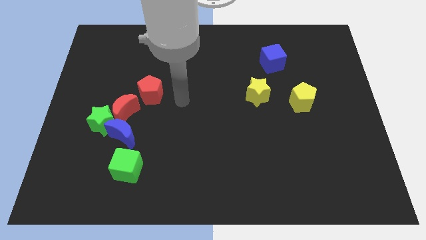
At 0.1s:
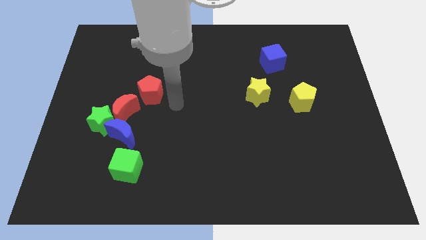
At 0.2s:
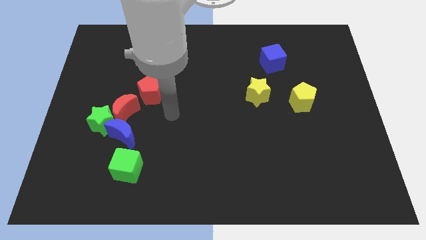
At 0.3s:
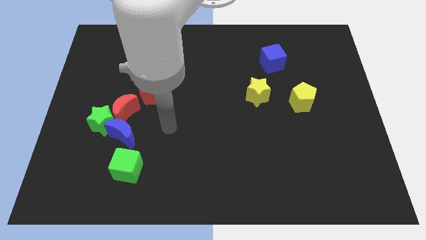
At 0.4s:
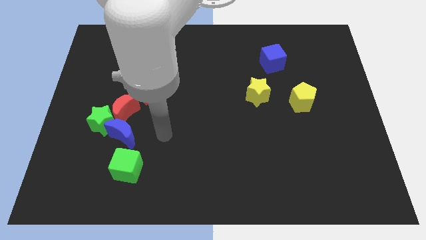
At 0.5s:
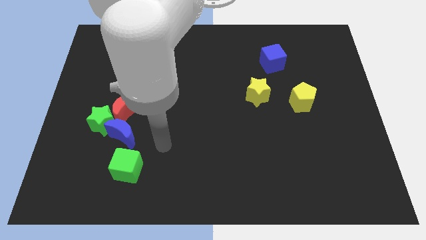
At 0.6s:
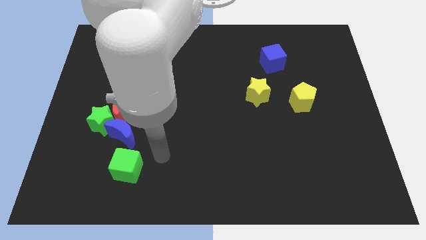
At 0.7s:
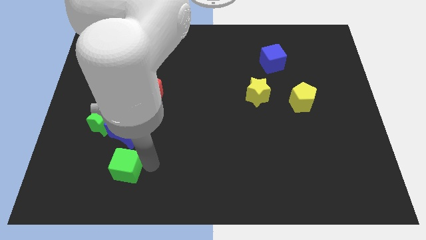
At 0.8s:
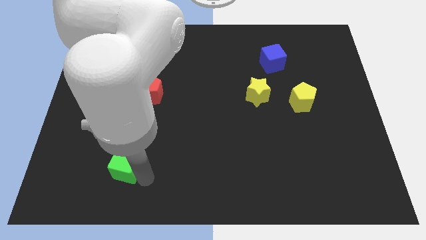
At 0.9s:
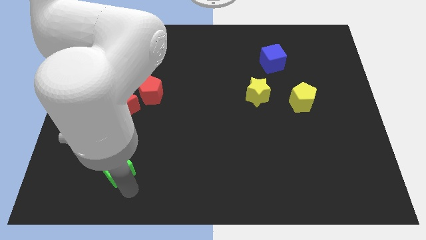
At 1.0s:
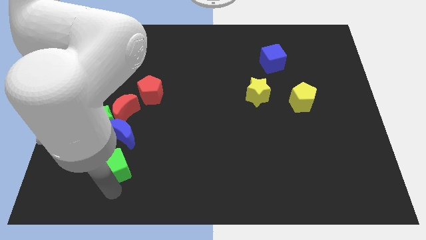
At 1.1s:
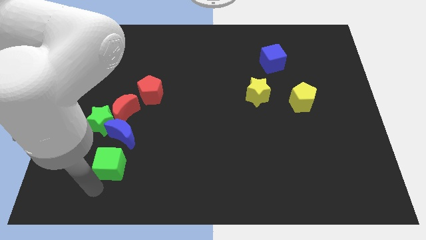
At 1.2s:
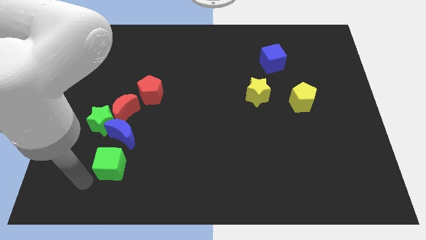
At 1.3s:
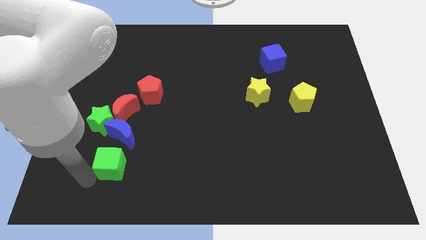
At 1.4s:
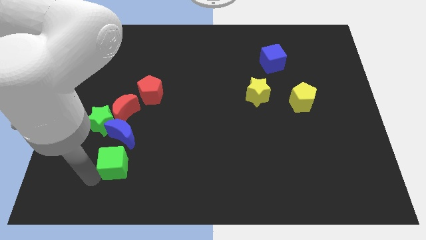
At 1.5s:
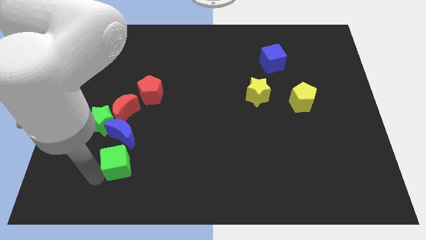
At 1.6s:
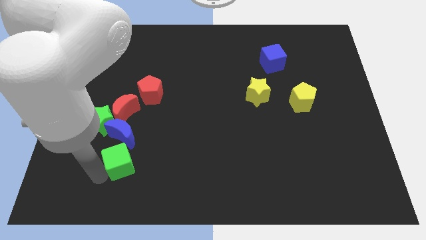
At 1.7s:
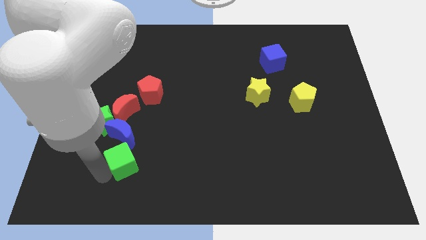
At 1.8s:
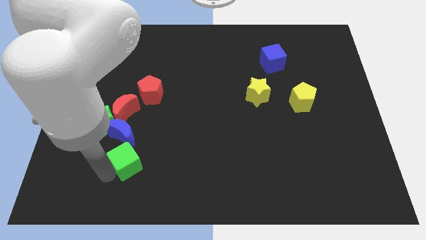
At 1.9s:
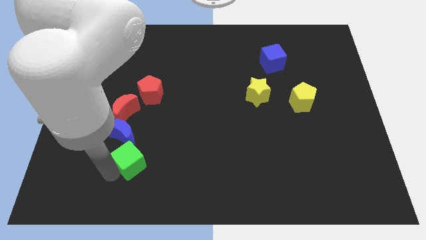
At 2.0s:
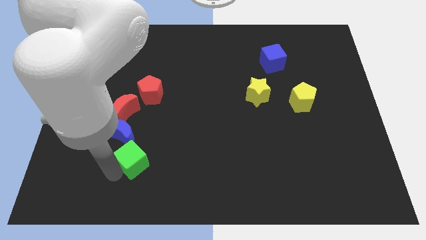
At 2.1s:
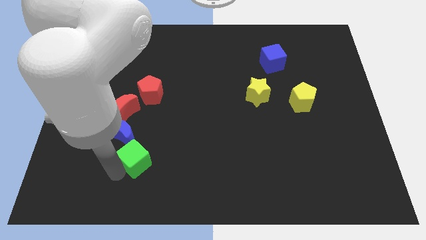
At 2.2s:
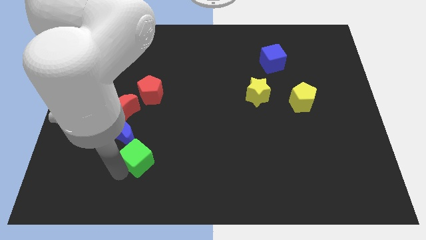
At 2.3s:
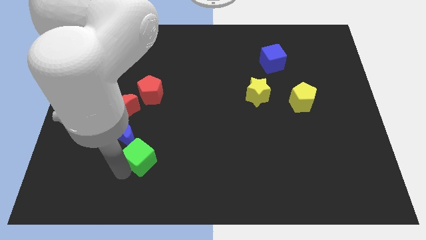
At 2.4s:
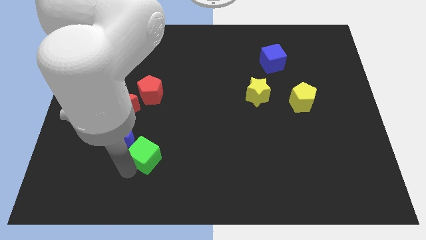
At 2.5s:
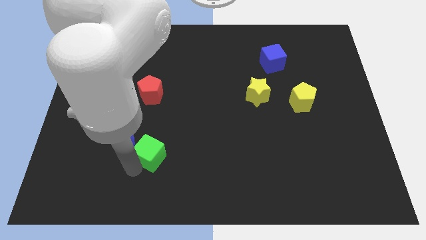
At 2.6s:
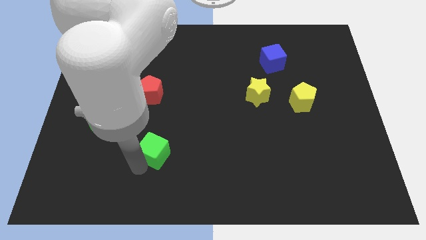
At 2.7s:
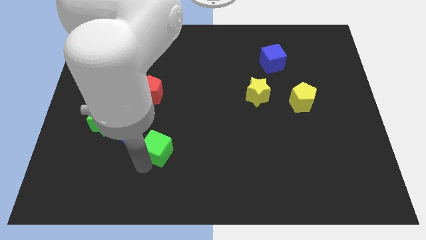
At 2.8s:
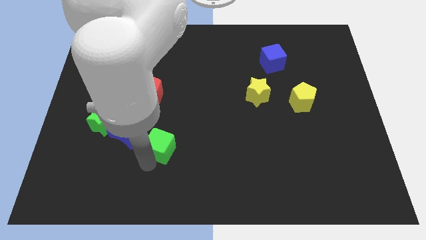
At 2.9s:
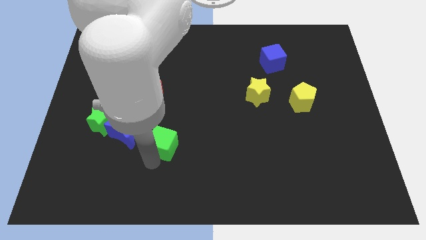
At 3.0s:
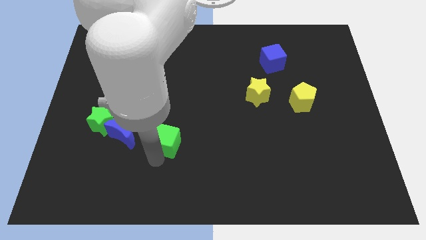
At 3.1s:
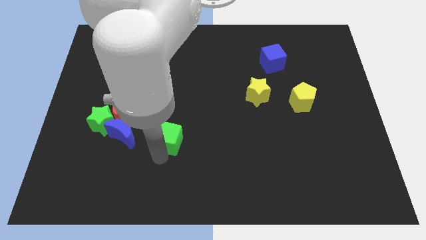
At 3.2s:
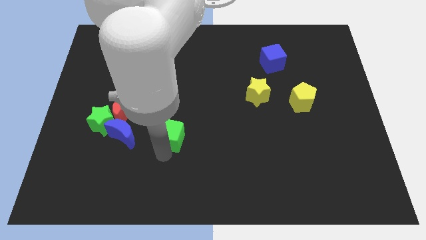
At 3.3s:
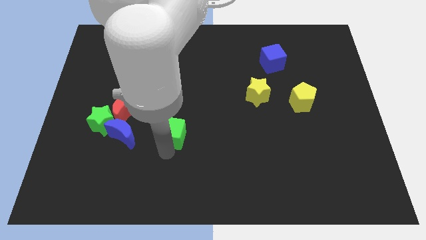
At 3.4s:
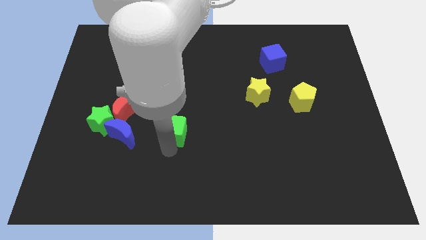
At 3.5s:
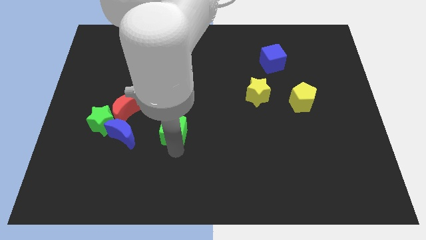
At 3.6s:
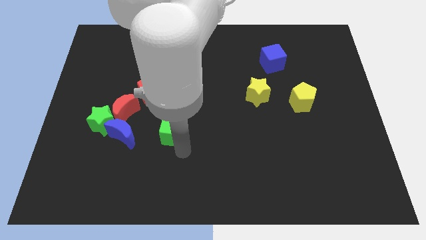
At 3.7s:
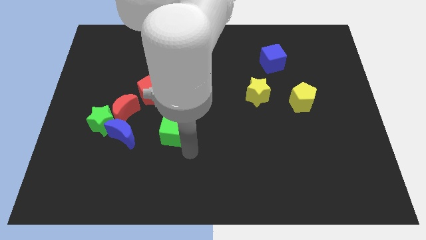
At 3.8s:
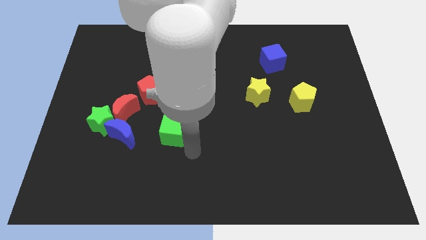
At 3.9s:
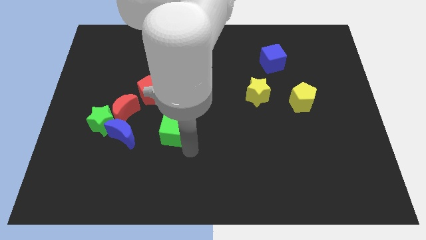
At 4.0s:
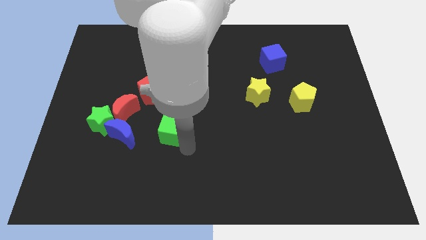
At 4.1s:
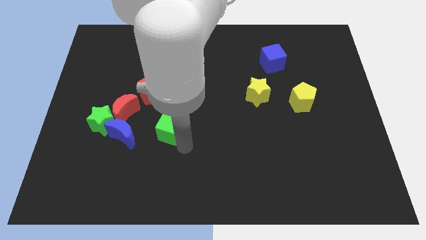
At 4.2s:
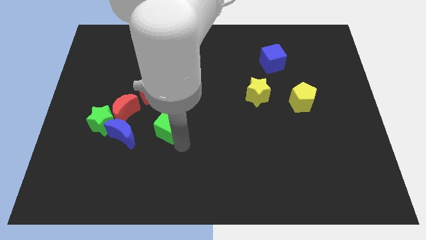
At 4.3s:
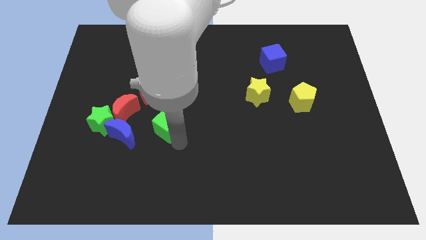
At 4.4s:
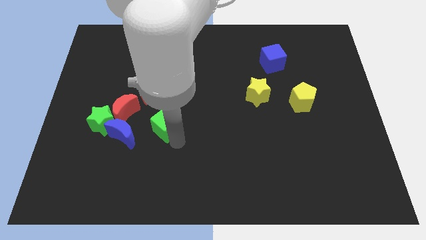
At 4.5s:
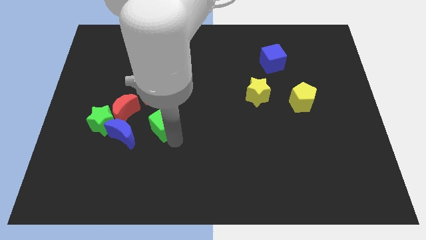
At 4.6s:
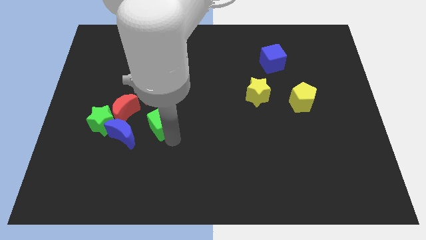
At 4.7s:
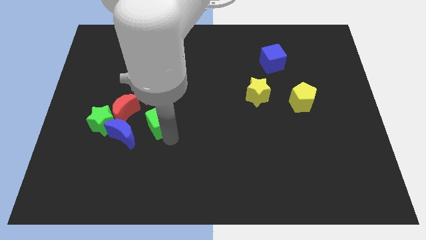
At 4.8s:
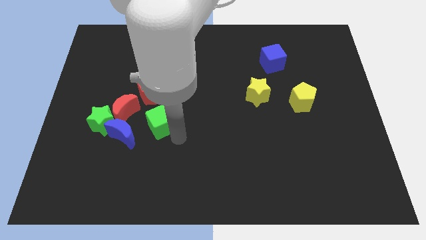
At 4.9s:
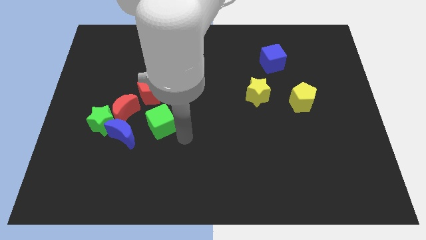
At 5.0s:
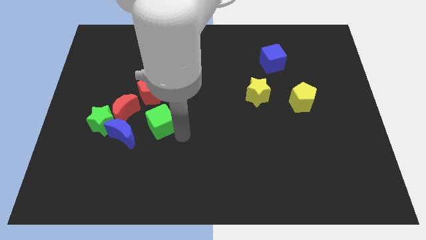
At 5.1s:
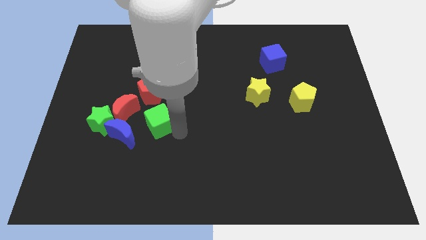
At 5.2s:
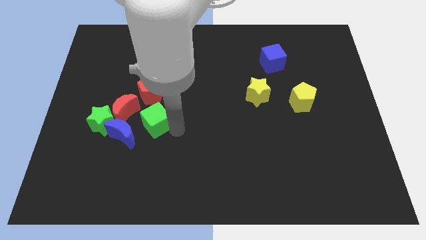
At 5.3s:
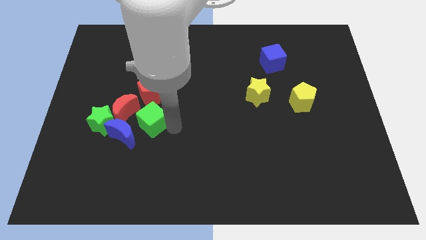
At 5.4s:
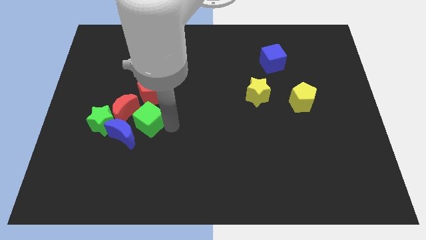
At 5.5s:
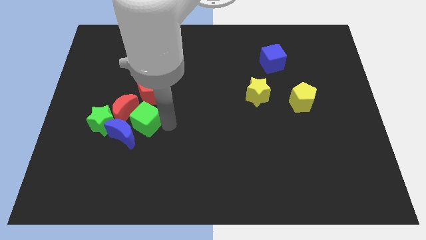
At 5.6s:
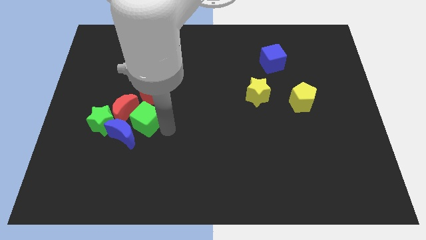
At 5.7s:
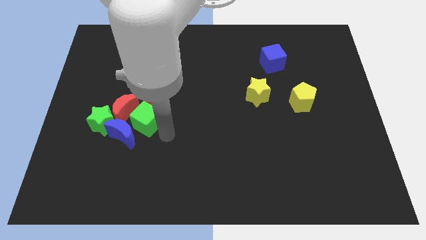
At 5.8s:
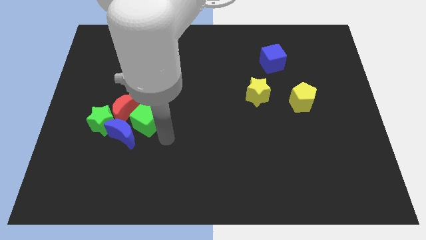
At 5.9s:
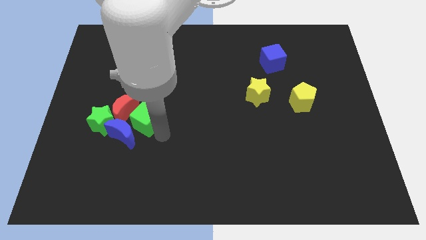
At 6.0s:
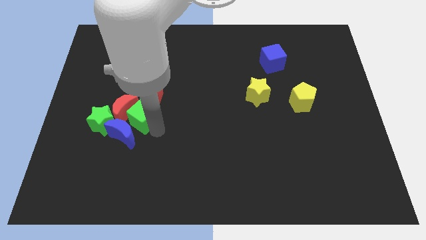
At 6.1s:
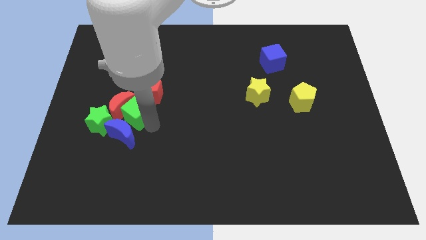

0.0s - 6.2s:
move the green cube to the top right side of the green star
